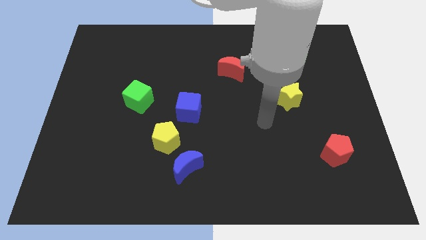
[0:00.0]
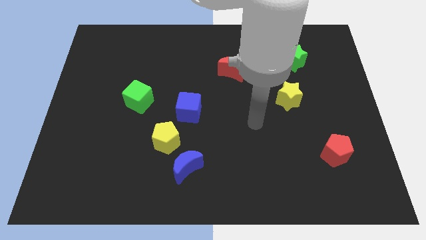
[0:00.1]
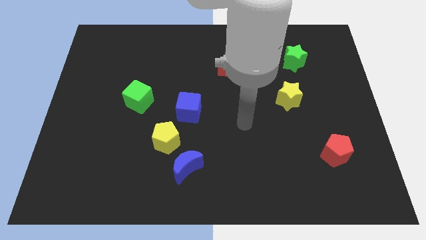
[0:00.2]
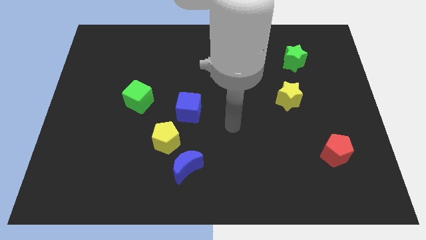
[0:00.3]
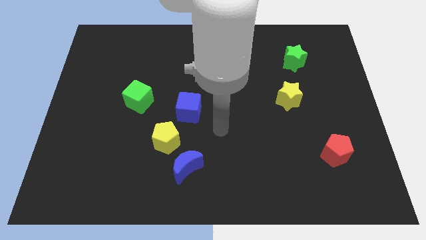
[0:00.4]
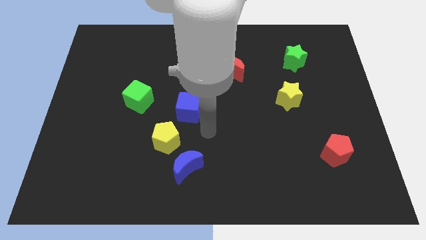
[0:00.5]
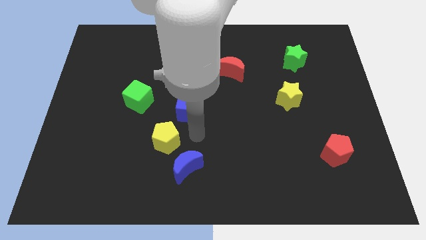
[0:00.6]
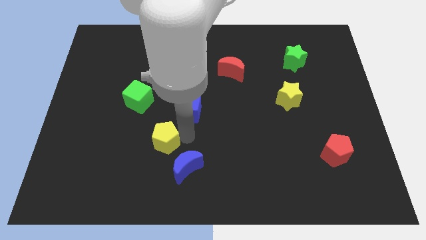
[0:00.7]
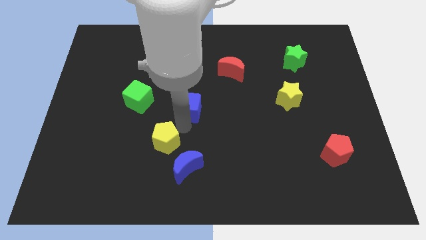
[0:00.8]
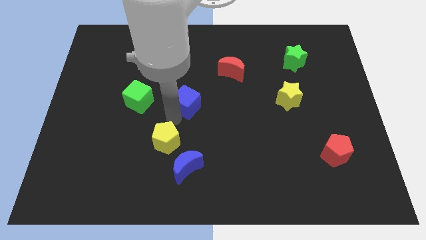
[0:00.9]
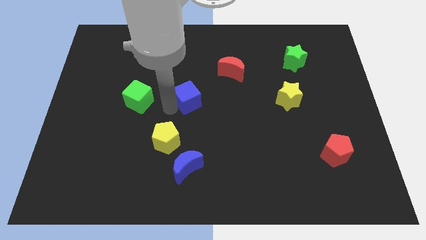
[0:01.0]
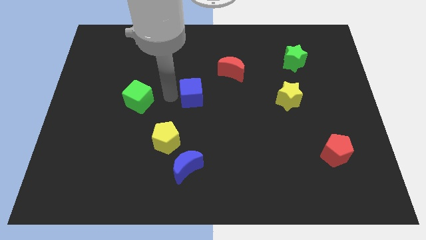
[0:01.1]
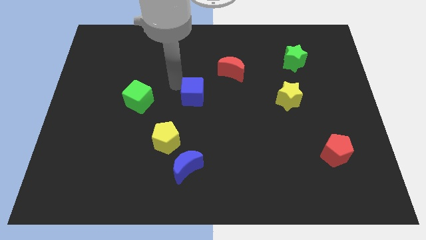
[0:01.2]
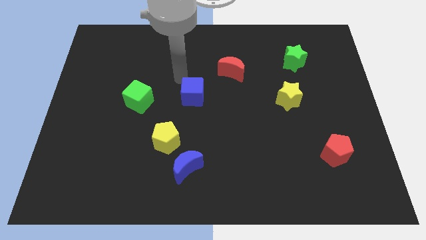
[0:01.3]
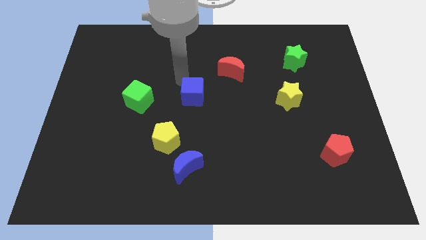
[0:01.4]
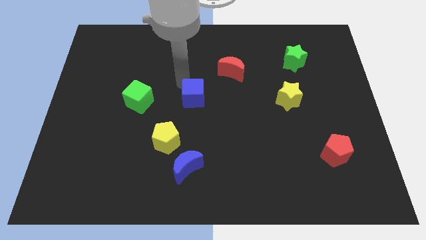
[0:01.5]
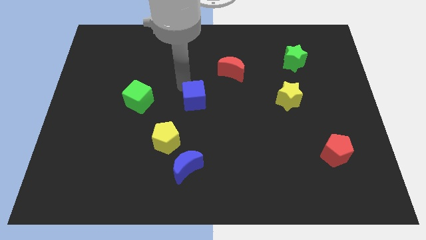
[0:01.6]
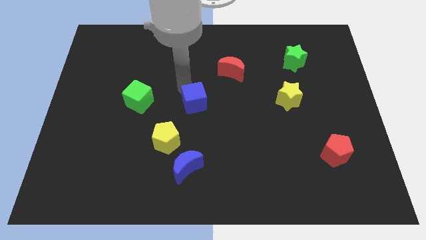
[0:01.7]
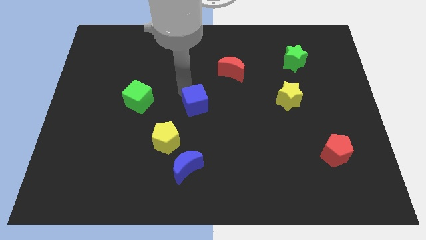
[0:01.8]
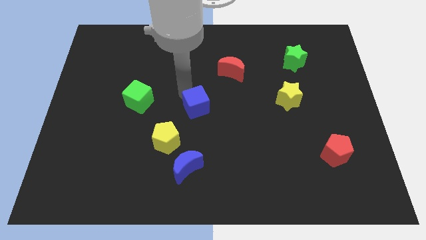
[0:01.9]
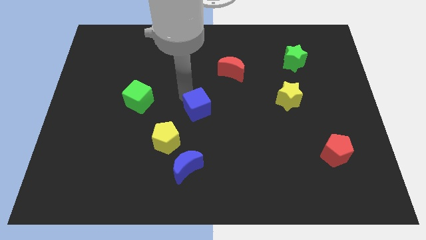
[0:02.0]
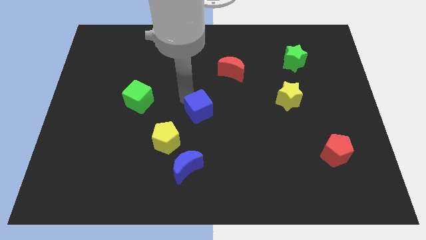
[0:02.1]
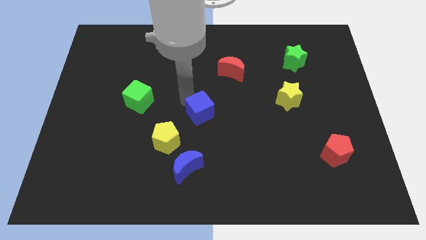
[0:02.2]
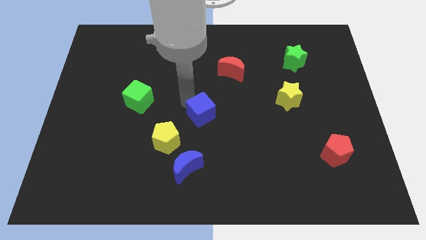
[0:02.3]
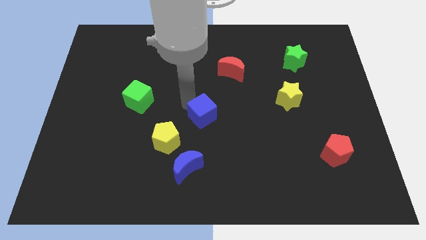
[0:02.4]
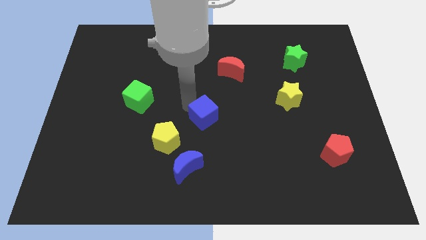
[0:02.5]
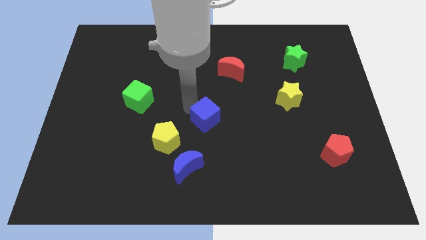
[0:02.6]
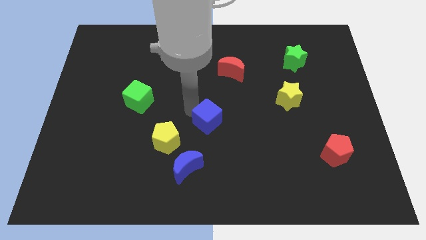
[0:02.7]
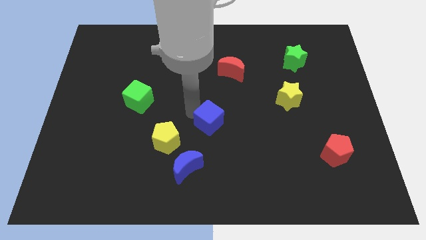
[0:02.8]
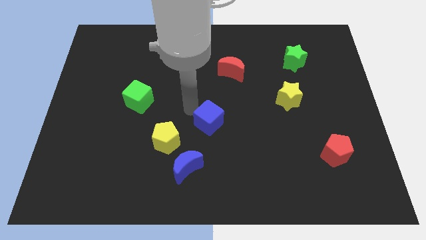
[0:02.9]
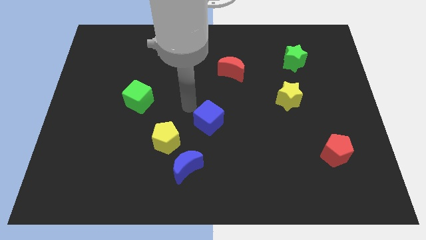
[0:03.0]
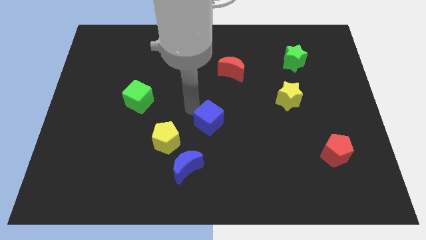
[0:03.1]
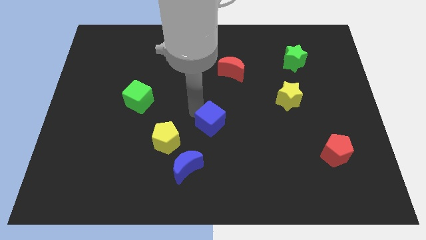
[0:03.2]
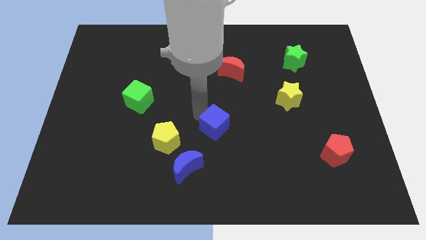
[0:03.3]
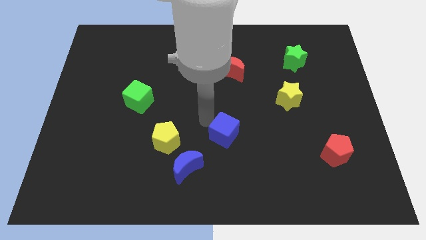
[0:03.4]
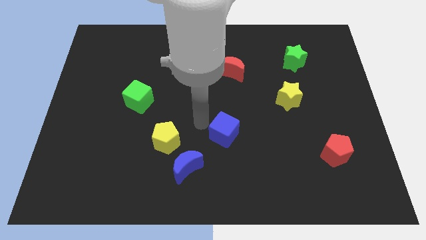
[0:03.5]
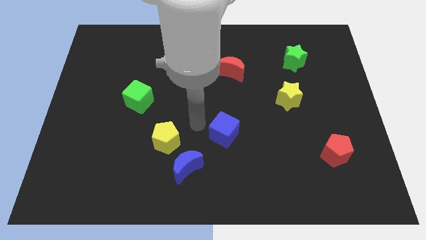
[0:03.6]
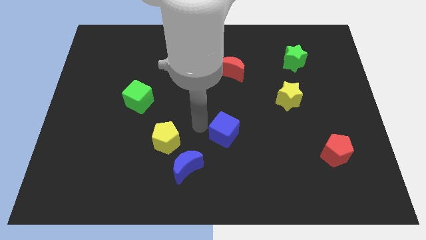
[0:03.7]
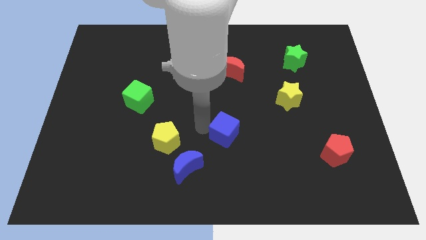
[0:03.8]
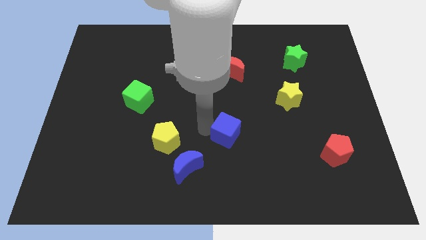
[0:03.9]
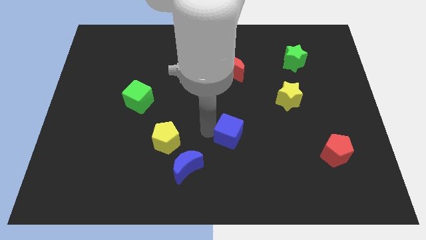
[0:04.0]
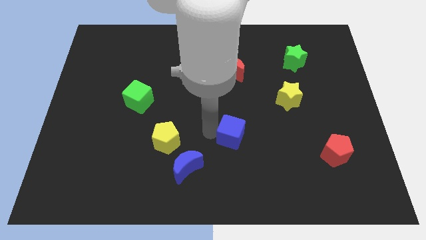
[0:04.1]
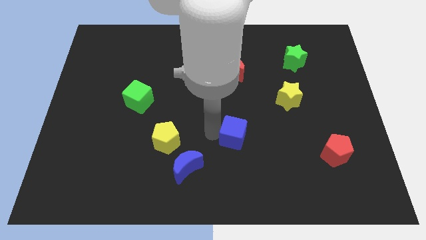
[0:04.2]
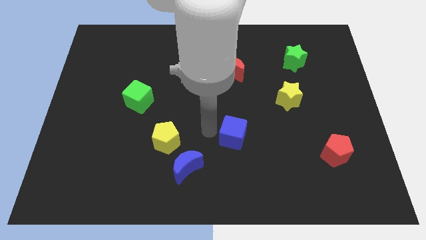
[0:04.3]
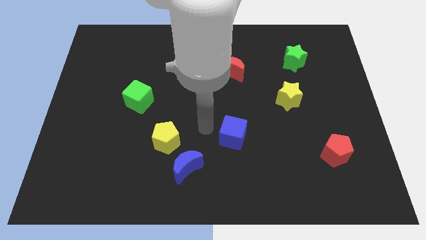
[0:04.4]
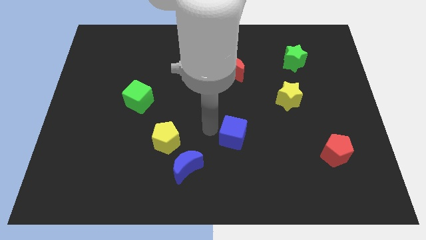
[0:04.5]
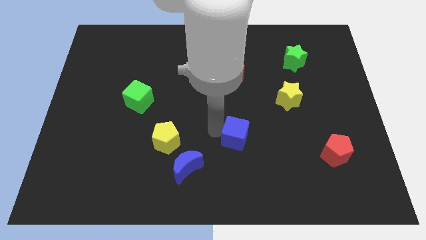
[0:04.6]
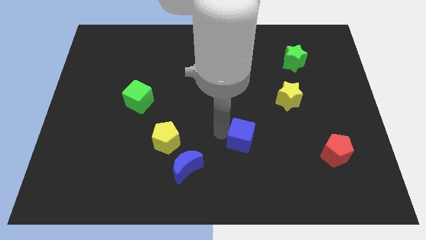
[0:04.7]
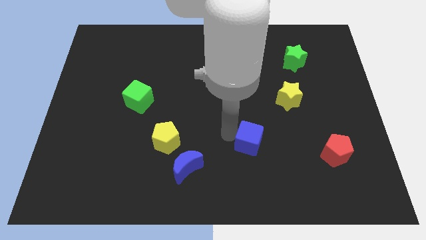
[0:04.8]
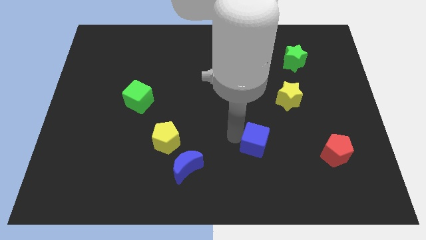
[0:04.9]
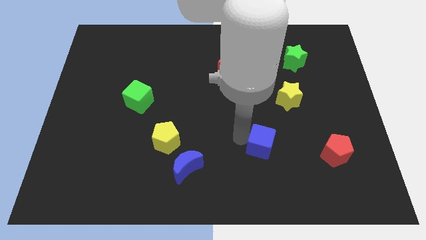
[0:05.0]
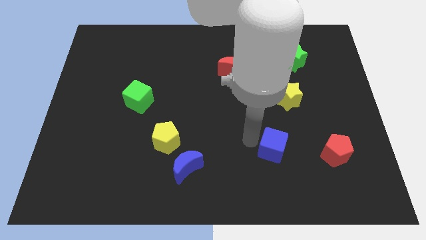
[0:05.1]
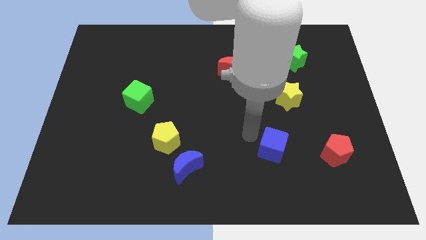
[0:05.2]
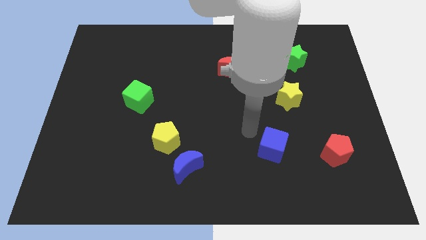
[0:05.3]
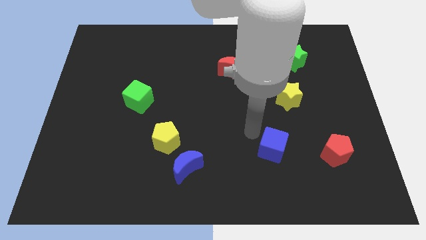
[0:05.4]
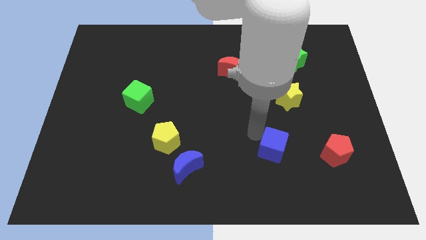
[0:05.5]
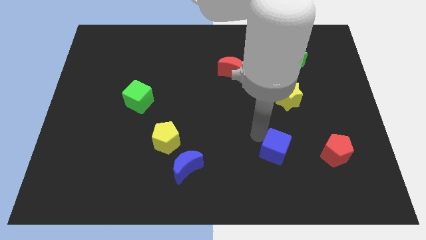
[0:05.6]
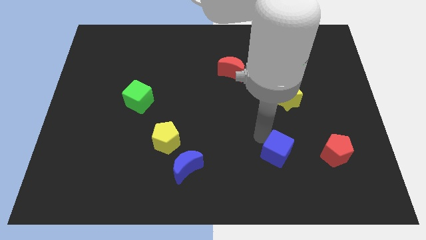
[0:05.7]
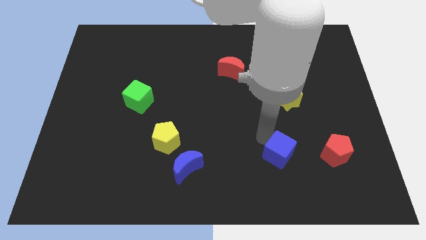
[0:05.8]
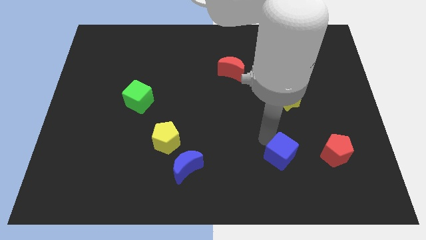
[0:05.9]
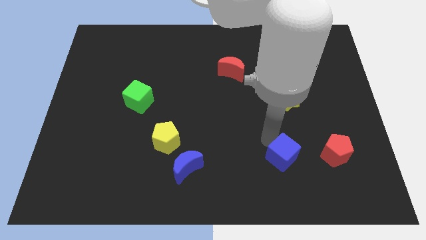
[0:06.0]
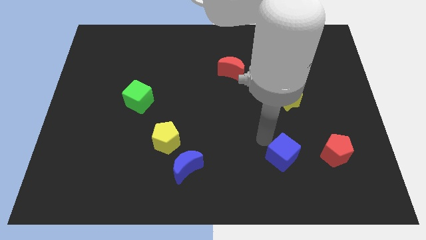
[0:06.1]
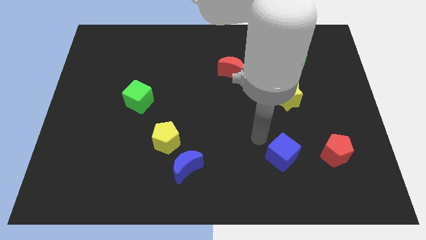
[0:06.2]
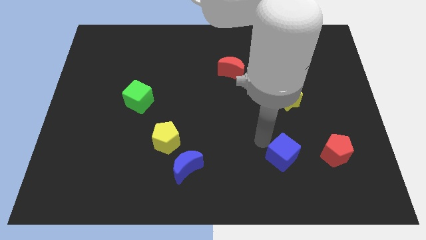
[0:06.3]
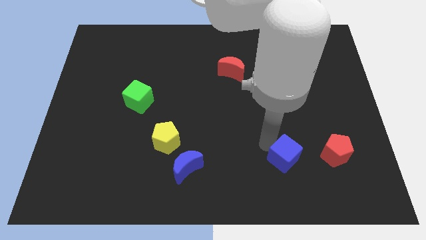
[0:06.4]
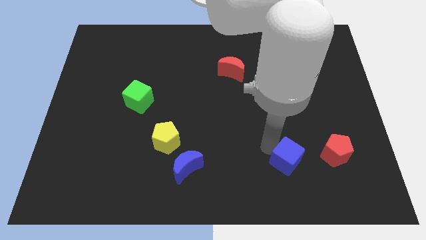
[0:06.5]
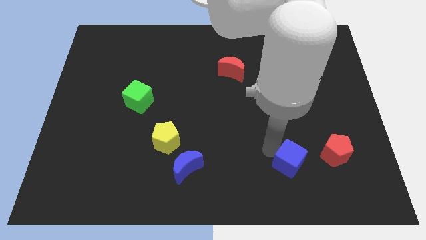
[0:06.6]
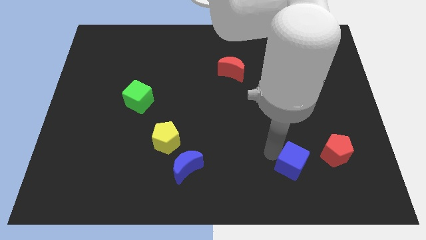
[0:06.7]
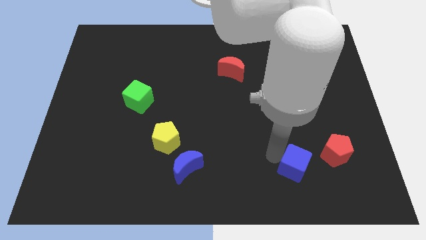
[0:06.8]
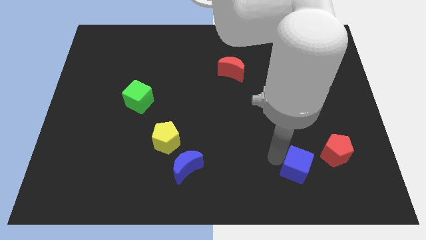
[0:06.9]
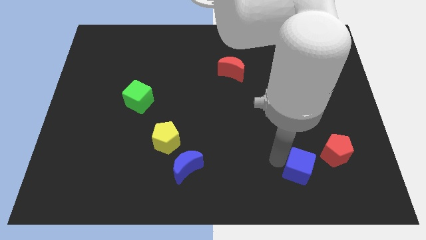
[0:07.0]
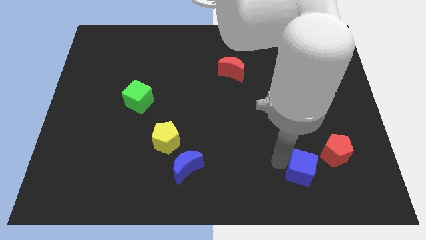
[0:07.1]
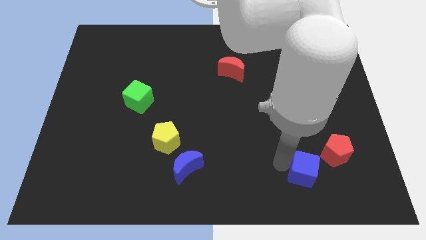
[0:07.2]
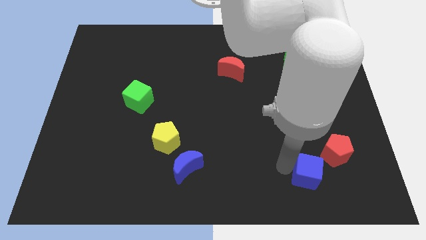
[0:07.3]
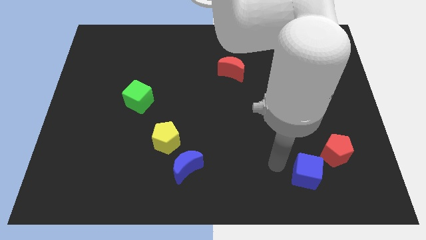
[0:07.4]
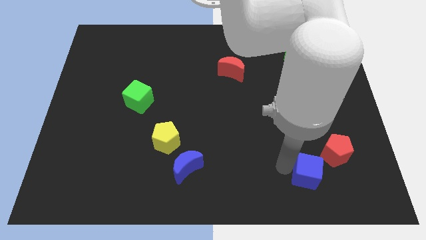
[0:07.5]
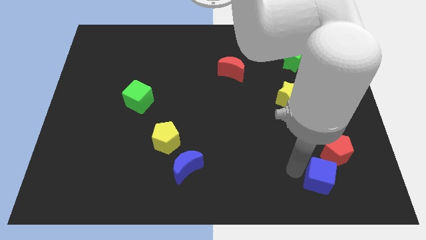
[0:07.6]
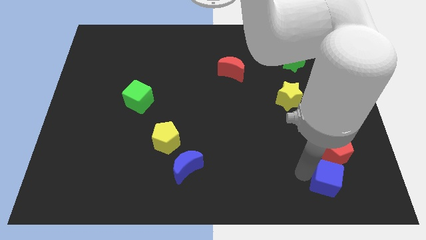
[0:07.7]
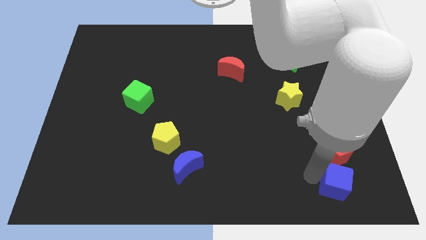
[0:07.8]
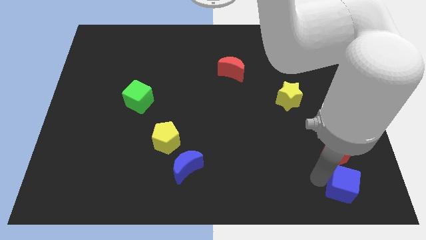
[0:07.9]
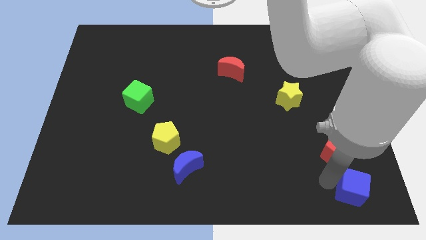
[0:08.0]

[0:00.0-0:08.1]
push the blue cube to the bottom right corner
